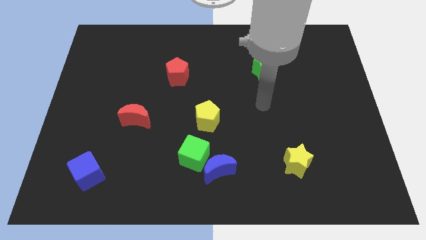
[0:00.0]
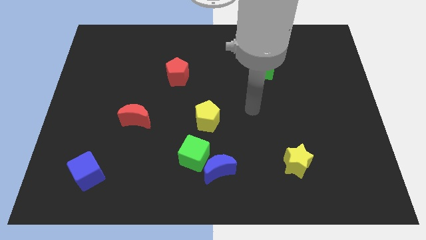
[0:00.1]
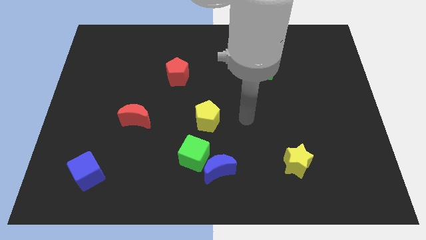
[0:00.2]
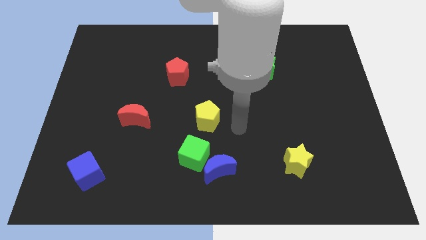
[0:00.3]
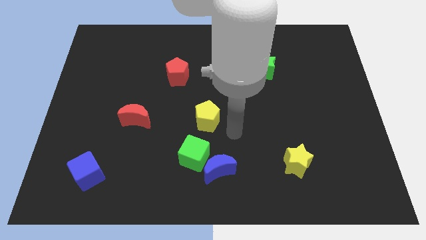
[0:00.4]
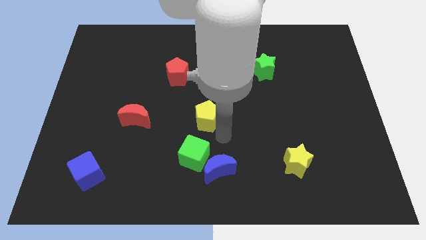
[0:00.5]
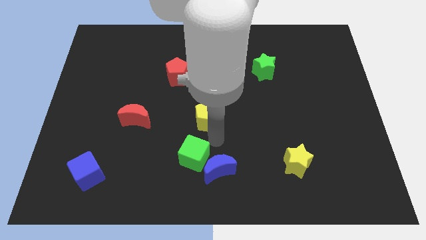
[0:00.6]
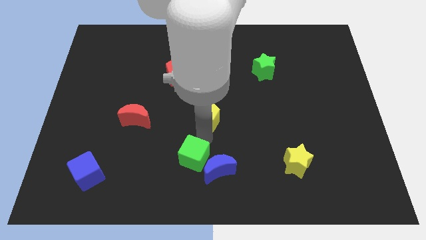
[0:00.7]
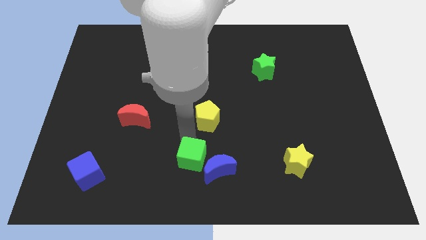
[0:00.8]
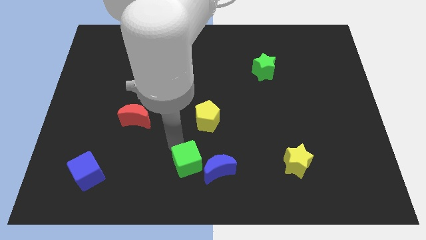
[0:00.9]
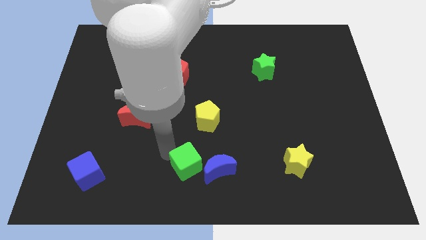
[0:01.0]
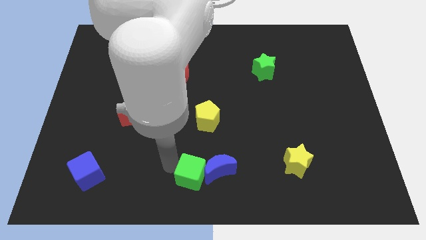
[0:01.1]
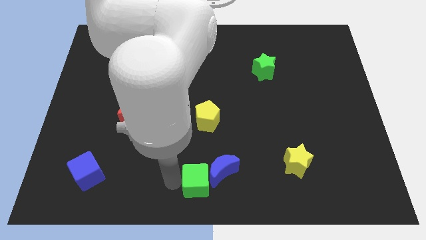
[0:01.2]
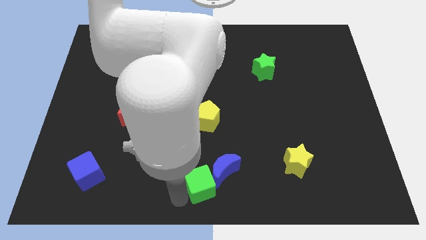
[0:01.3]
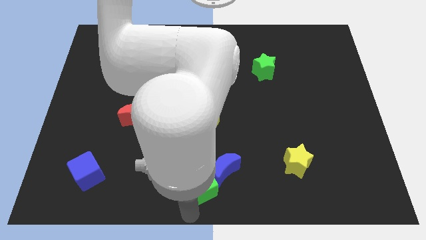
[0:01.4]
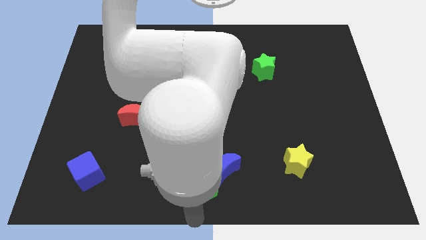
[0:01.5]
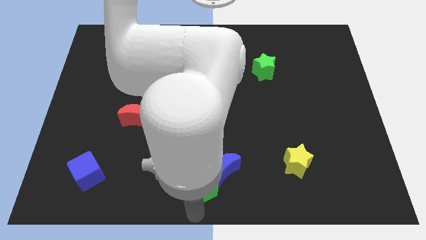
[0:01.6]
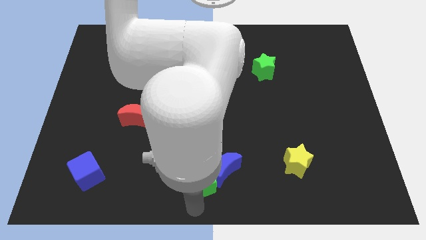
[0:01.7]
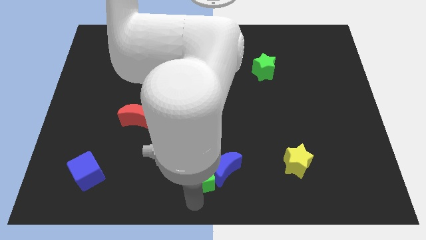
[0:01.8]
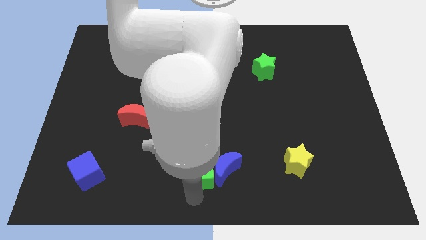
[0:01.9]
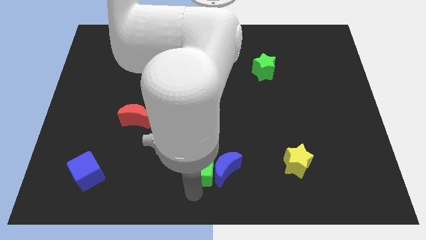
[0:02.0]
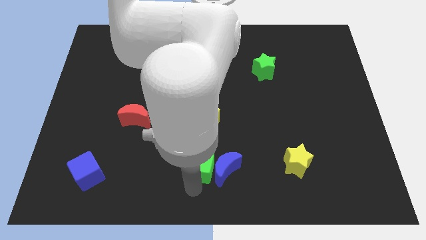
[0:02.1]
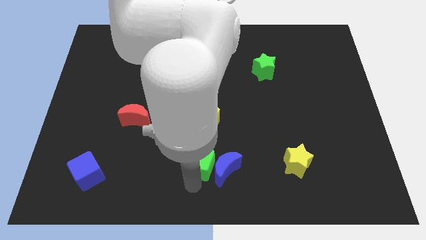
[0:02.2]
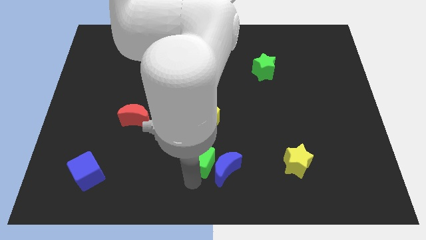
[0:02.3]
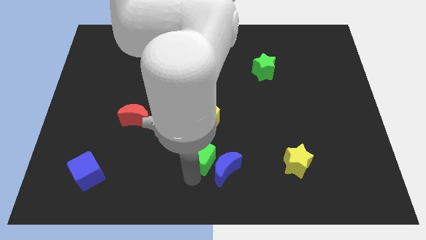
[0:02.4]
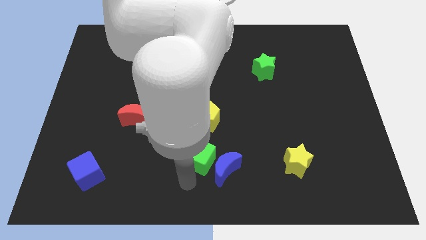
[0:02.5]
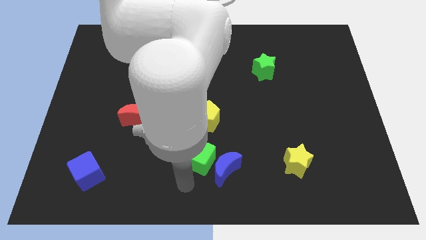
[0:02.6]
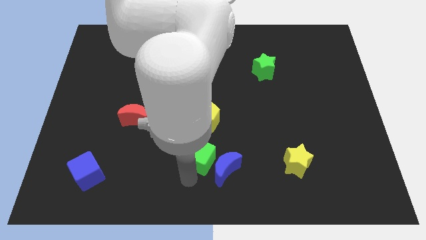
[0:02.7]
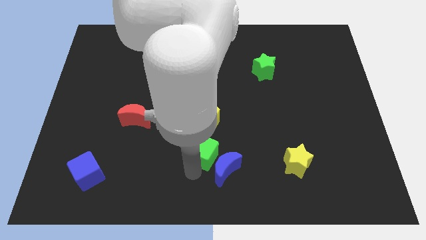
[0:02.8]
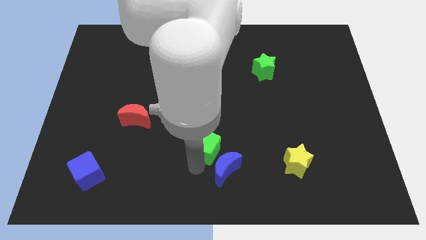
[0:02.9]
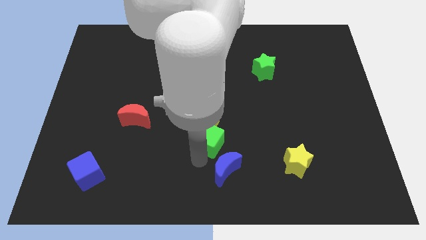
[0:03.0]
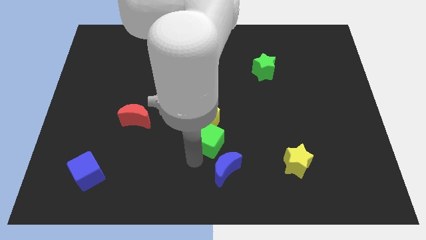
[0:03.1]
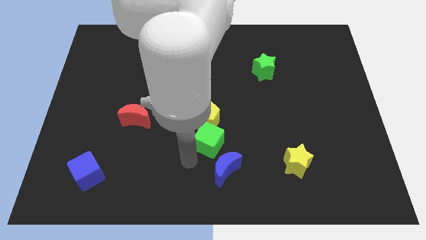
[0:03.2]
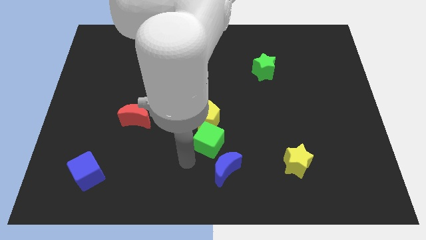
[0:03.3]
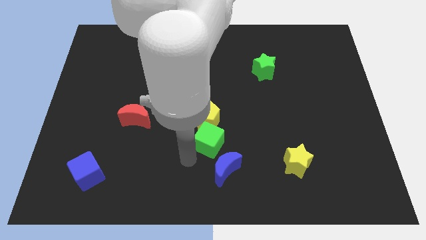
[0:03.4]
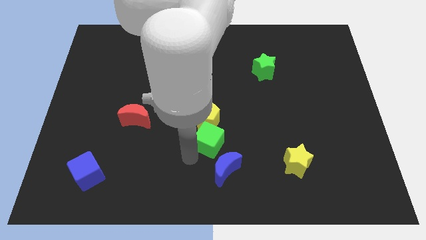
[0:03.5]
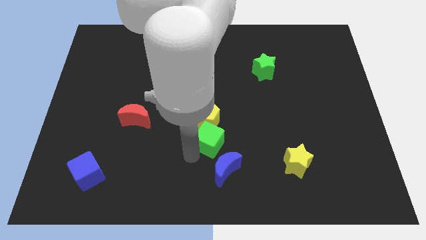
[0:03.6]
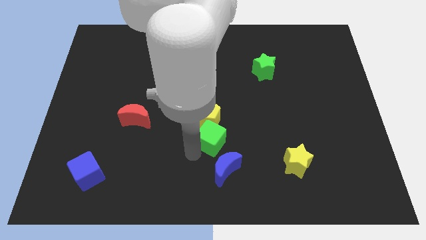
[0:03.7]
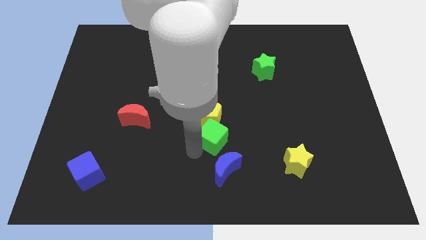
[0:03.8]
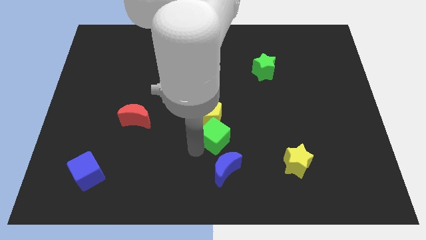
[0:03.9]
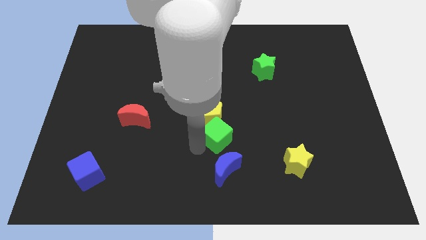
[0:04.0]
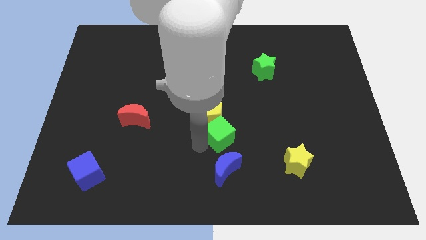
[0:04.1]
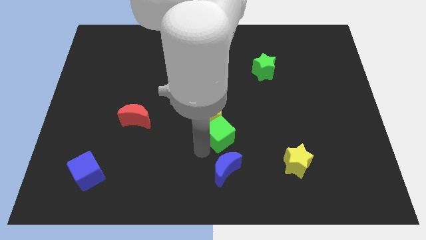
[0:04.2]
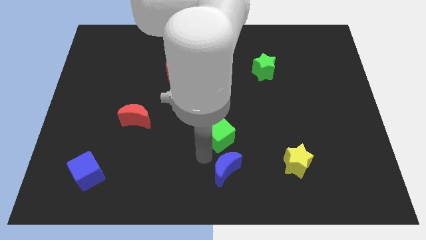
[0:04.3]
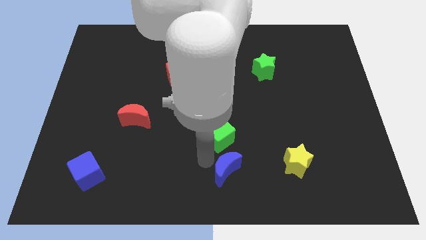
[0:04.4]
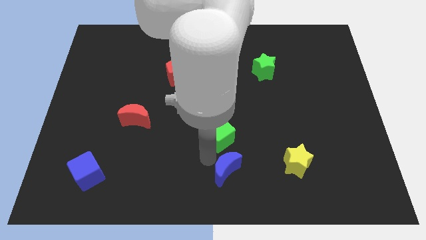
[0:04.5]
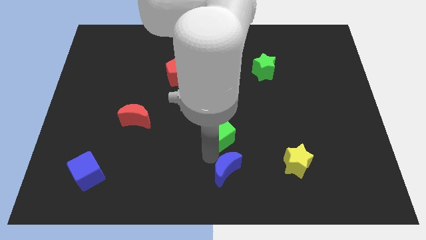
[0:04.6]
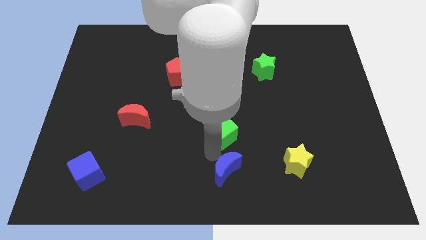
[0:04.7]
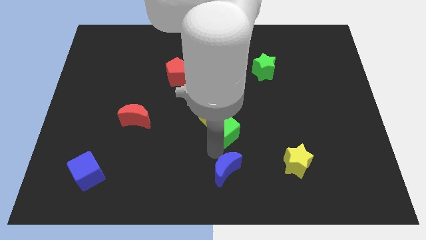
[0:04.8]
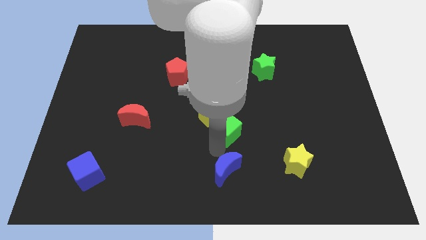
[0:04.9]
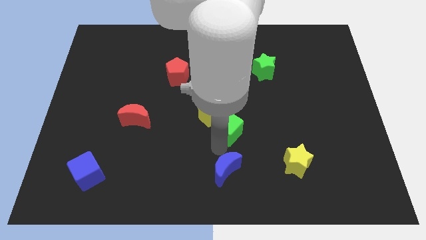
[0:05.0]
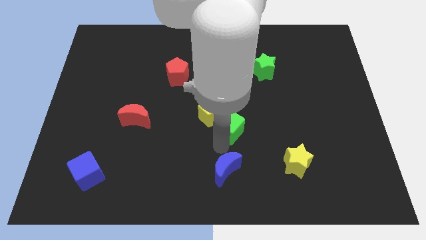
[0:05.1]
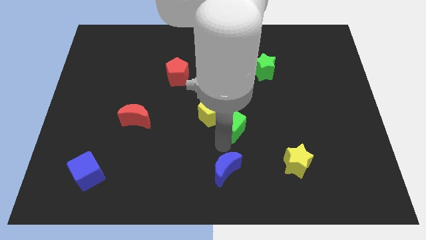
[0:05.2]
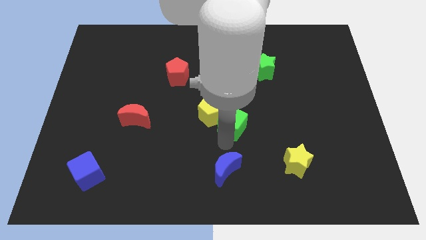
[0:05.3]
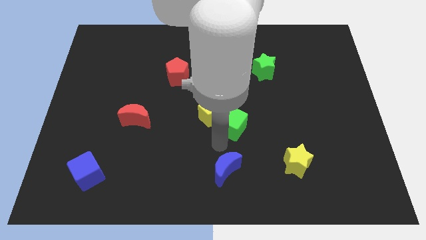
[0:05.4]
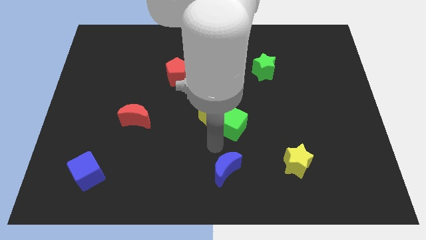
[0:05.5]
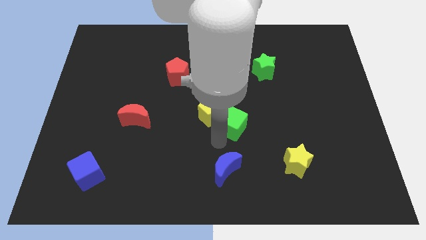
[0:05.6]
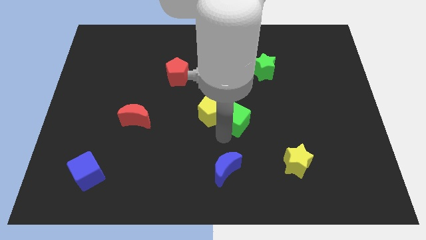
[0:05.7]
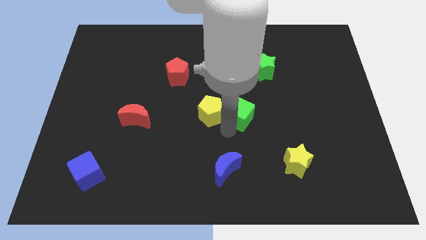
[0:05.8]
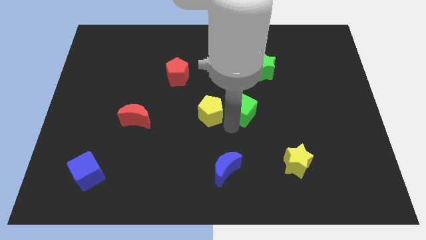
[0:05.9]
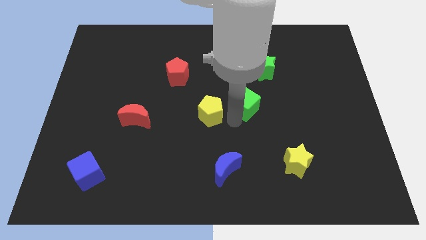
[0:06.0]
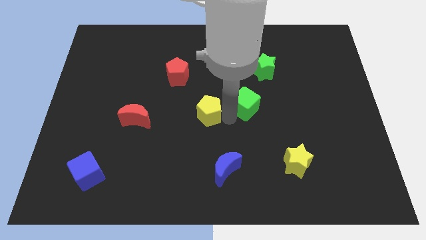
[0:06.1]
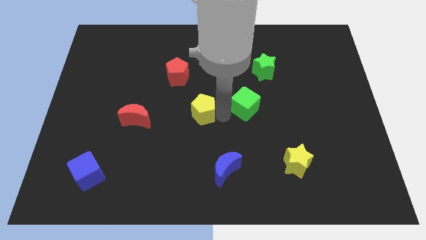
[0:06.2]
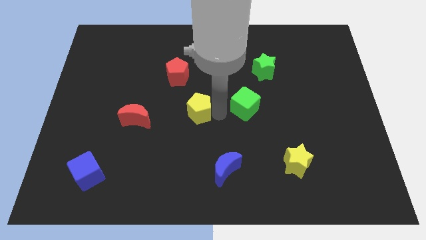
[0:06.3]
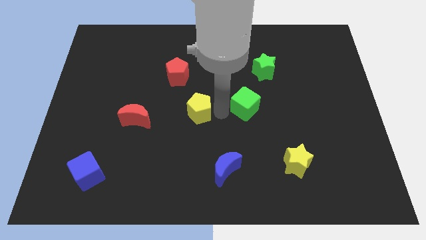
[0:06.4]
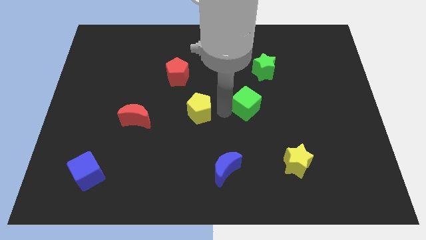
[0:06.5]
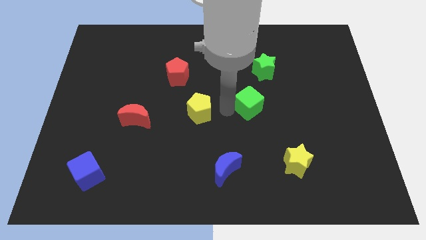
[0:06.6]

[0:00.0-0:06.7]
move the green cube below the green star

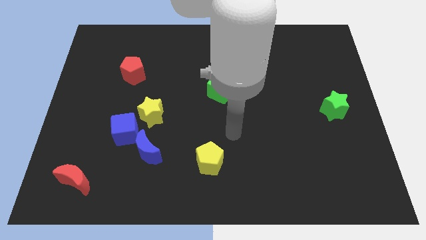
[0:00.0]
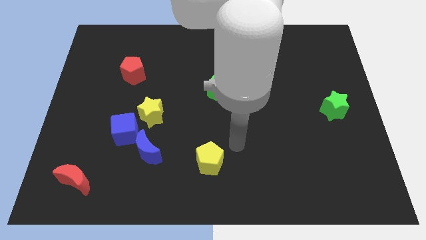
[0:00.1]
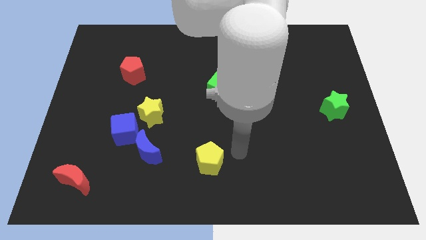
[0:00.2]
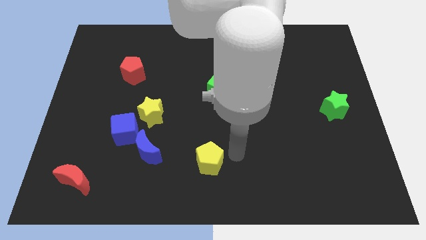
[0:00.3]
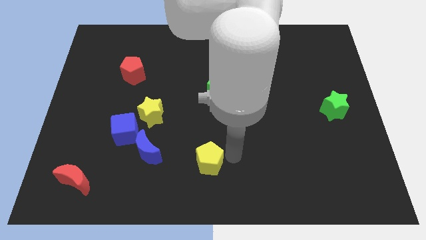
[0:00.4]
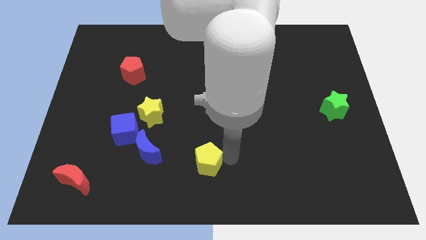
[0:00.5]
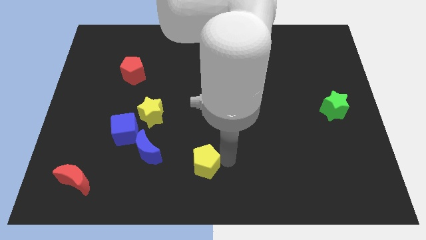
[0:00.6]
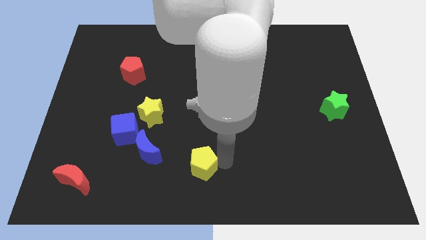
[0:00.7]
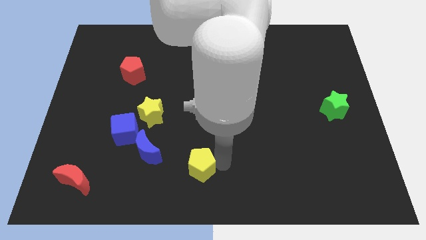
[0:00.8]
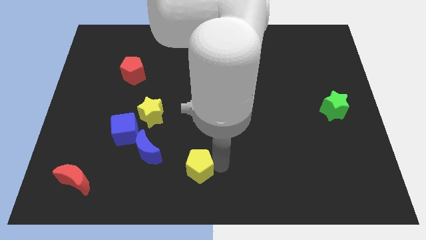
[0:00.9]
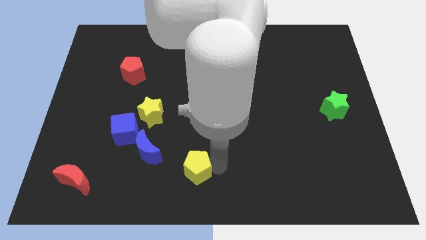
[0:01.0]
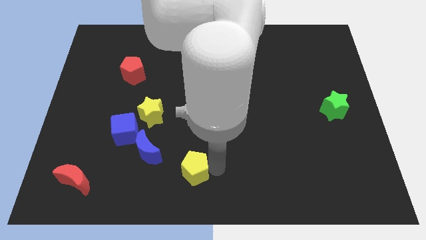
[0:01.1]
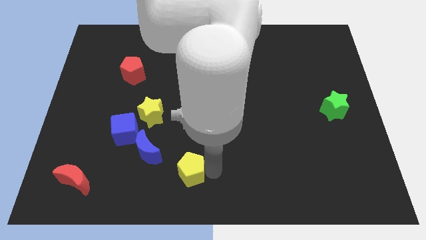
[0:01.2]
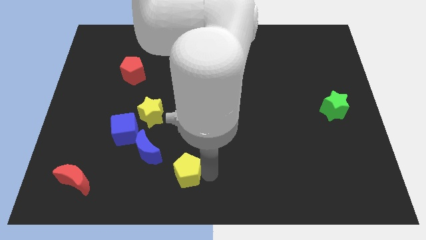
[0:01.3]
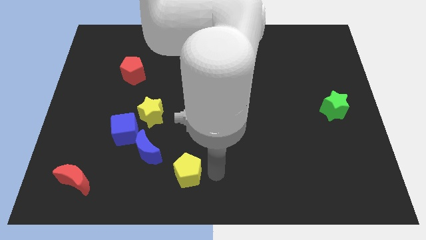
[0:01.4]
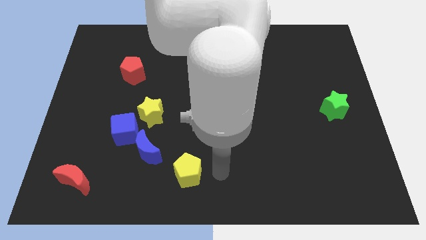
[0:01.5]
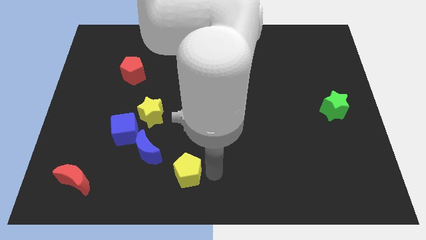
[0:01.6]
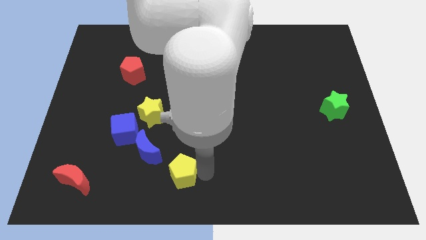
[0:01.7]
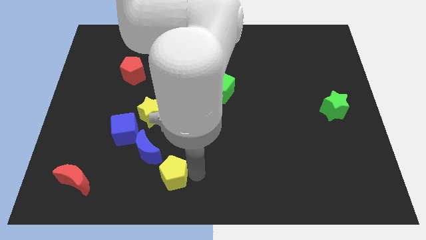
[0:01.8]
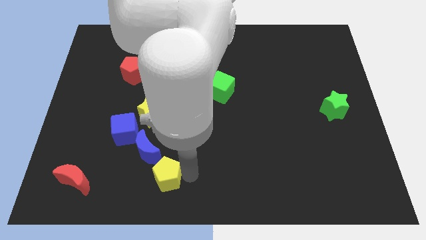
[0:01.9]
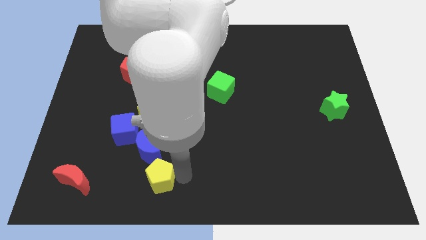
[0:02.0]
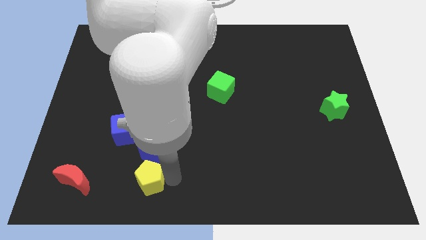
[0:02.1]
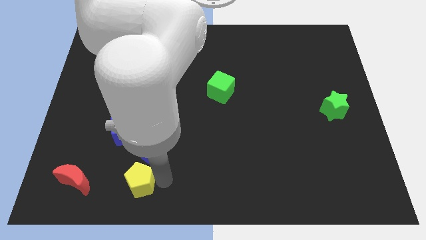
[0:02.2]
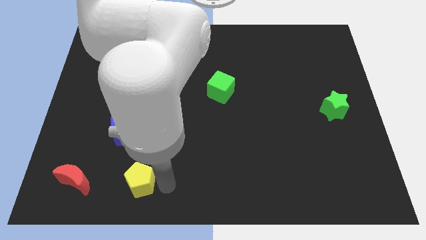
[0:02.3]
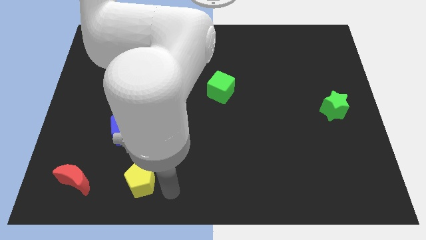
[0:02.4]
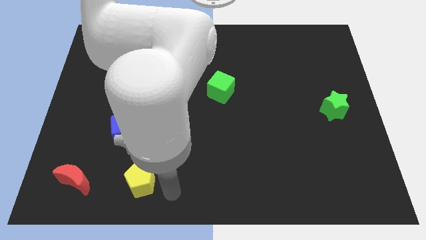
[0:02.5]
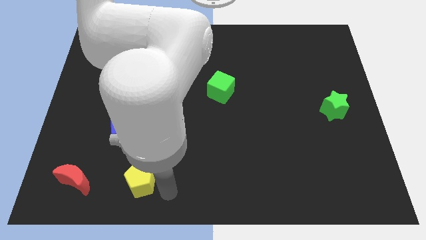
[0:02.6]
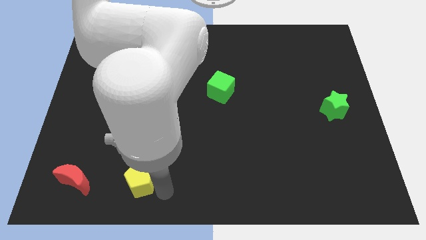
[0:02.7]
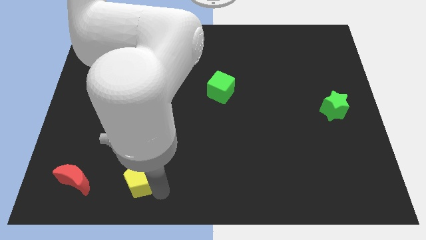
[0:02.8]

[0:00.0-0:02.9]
push the yellow pentagon to the bottom of the blue cube
